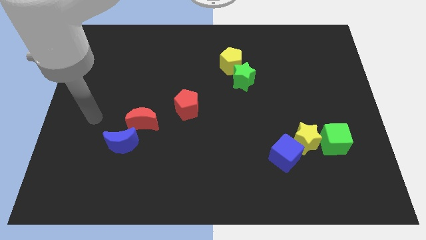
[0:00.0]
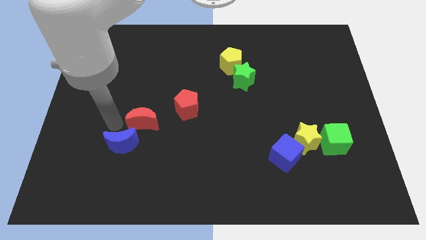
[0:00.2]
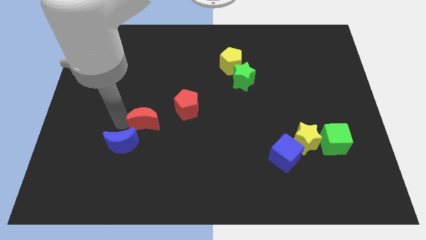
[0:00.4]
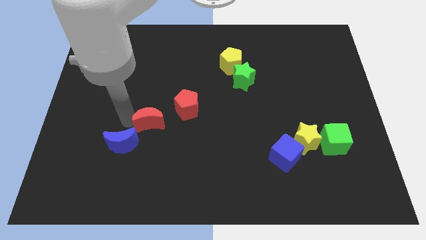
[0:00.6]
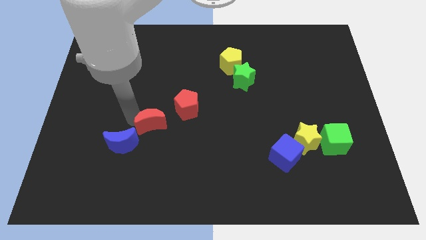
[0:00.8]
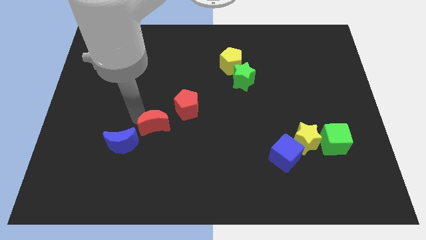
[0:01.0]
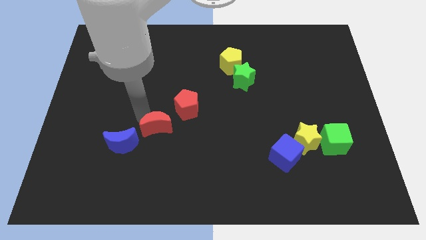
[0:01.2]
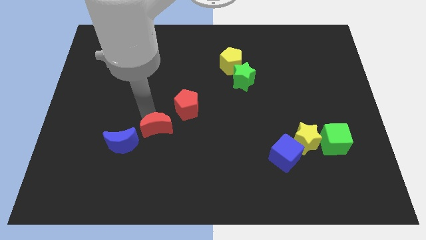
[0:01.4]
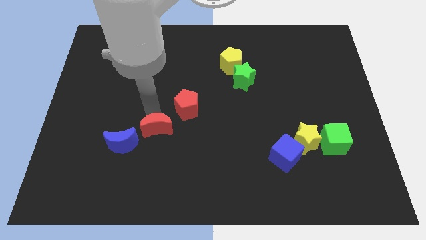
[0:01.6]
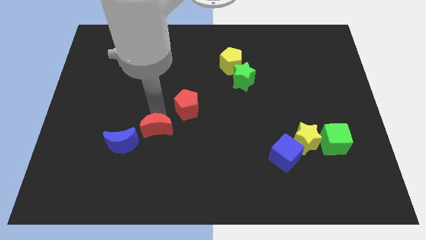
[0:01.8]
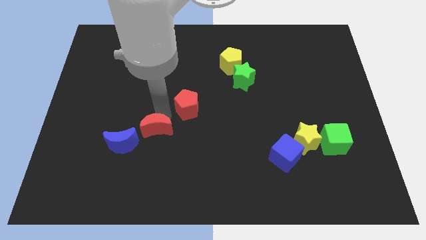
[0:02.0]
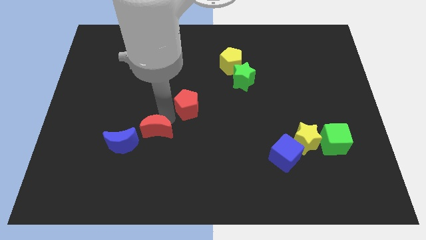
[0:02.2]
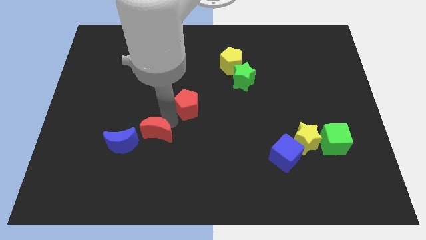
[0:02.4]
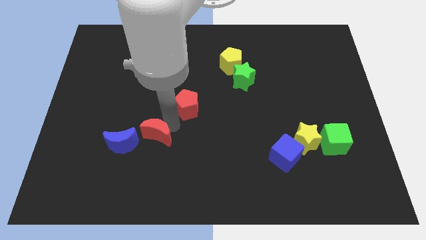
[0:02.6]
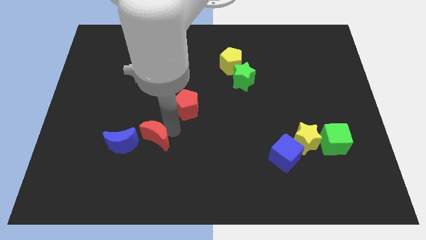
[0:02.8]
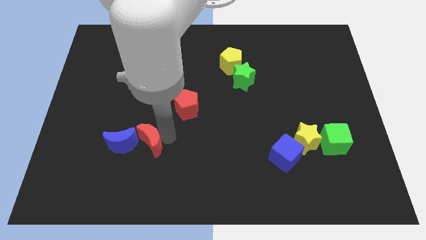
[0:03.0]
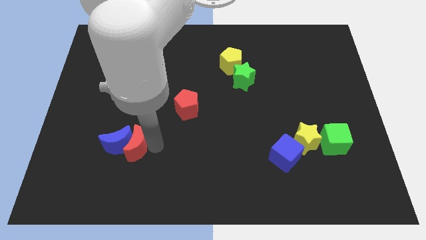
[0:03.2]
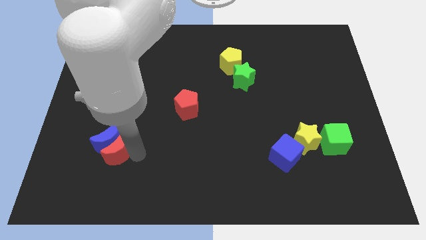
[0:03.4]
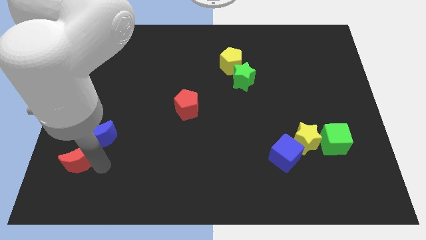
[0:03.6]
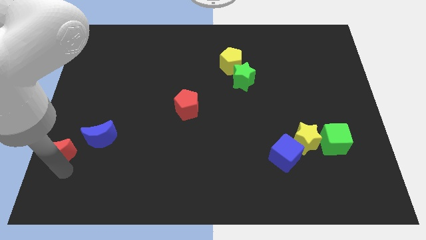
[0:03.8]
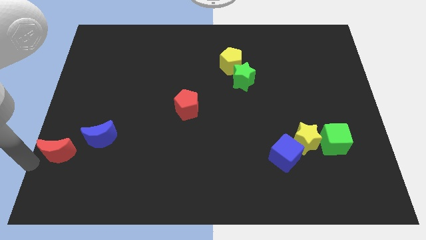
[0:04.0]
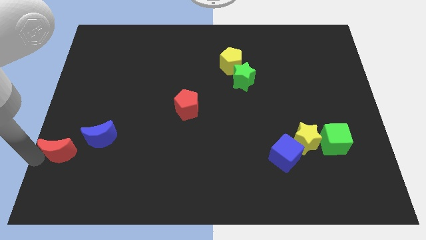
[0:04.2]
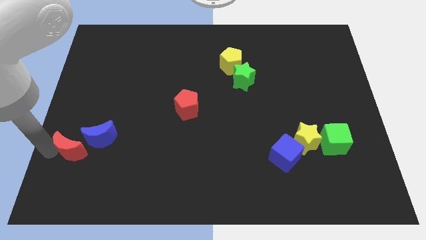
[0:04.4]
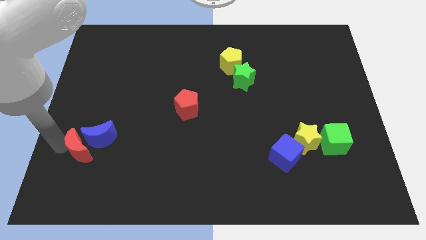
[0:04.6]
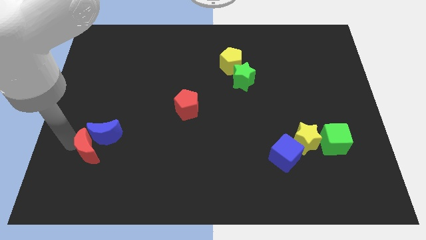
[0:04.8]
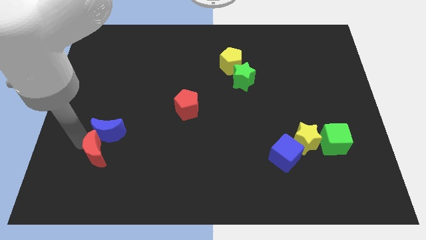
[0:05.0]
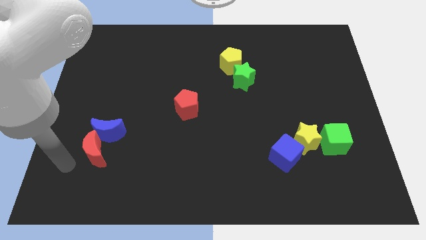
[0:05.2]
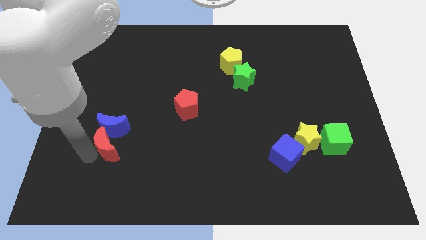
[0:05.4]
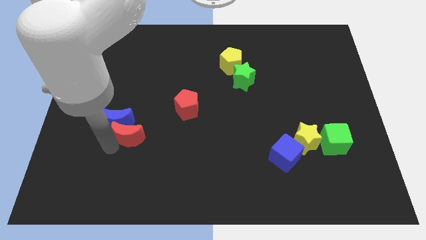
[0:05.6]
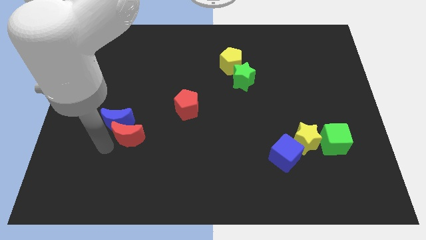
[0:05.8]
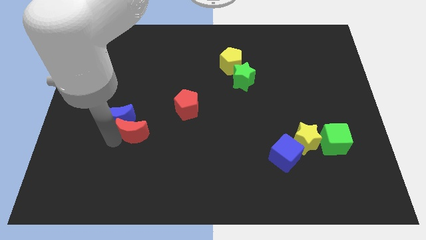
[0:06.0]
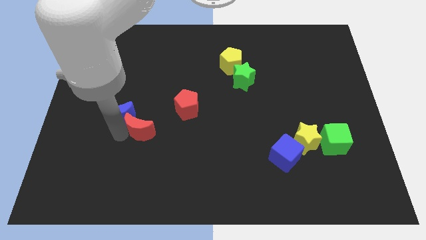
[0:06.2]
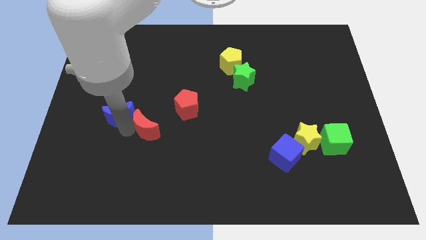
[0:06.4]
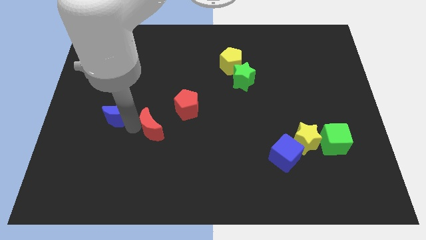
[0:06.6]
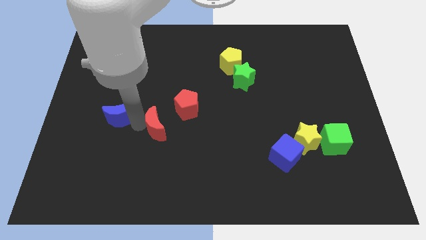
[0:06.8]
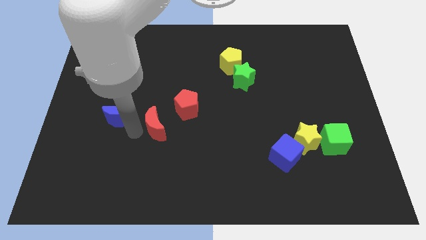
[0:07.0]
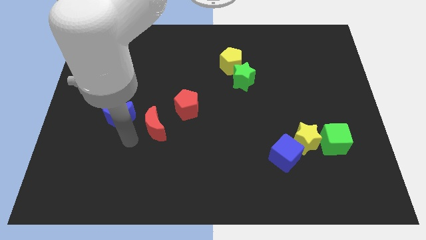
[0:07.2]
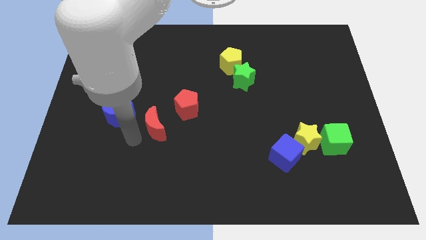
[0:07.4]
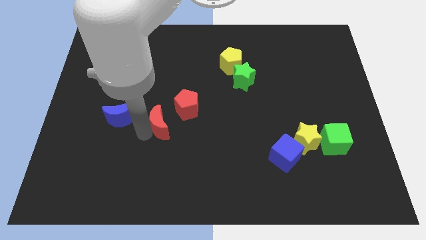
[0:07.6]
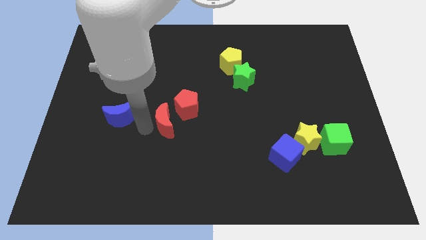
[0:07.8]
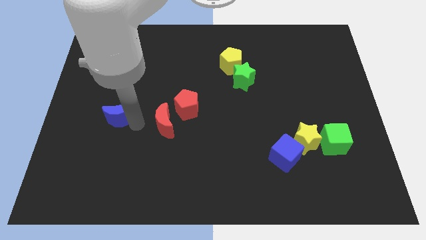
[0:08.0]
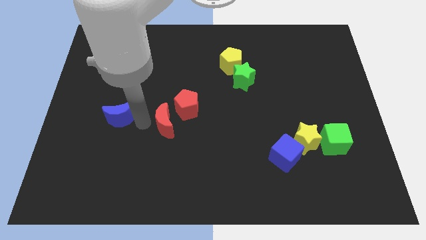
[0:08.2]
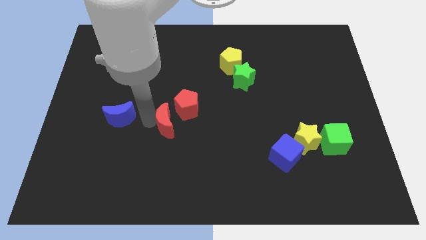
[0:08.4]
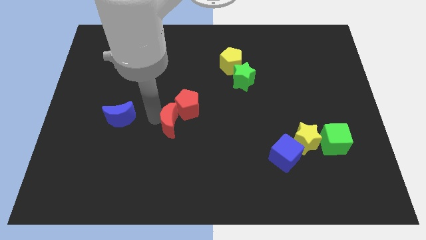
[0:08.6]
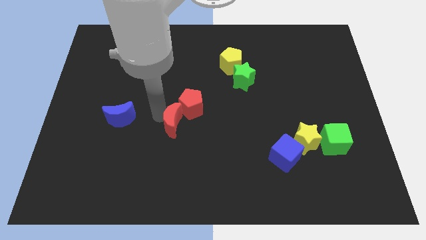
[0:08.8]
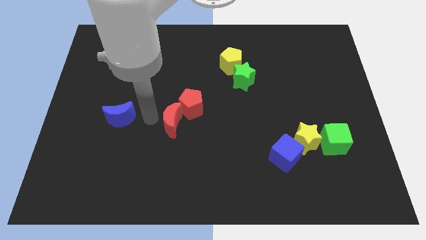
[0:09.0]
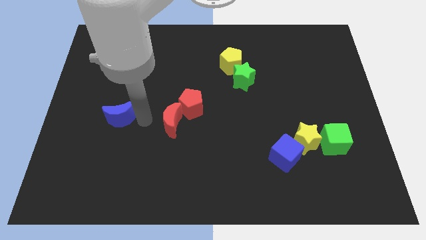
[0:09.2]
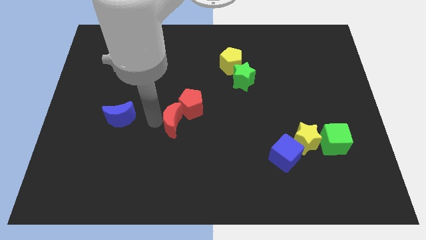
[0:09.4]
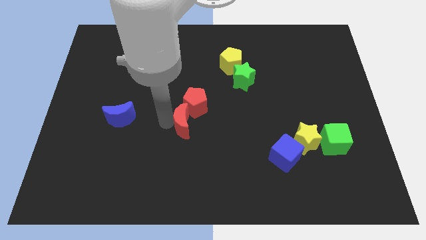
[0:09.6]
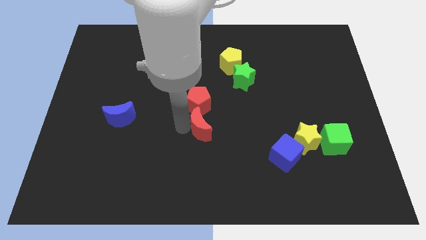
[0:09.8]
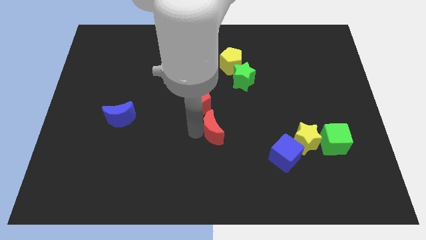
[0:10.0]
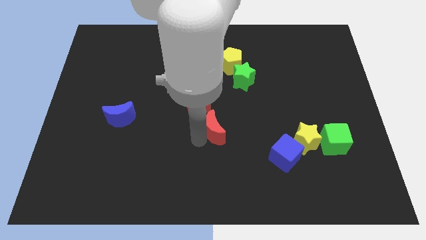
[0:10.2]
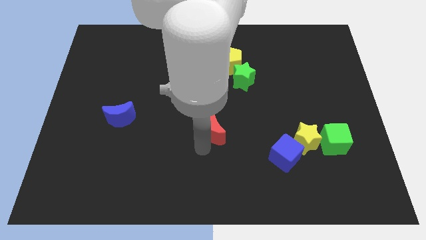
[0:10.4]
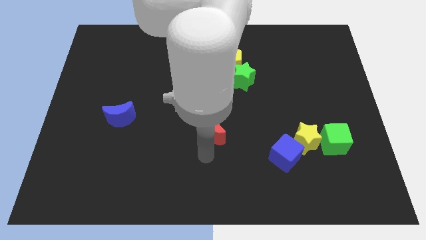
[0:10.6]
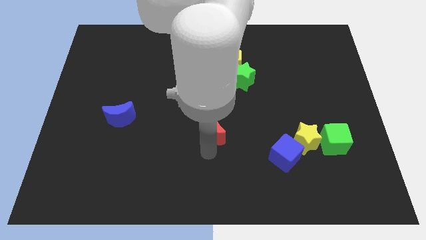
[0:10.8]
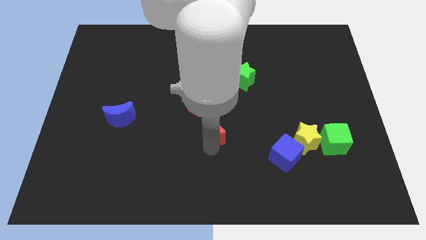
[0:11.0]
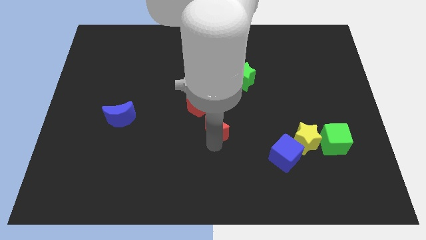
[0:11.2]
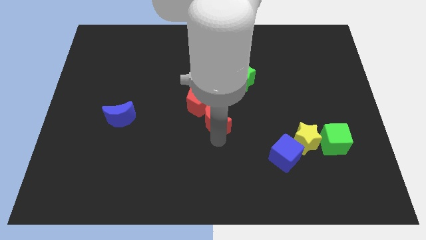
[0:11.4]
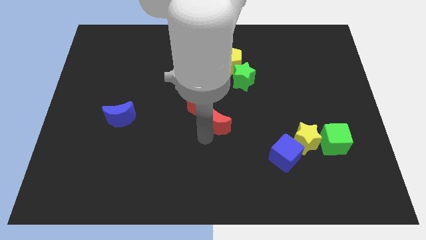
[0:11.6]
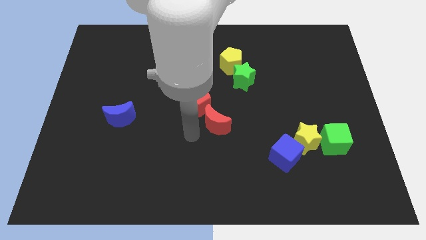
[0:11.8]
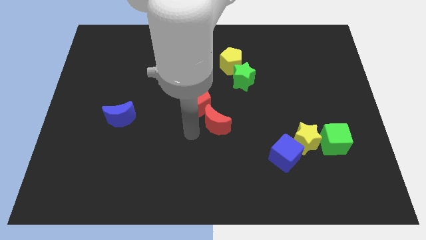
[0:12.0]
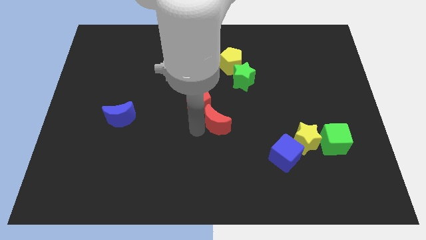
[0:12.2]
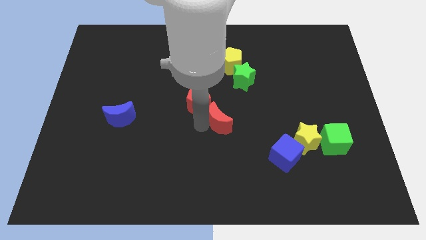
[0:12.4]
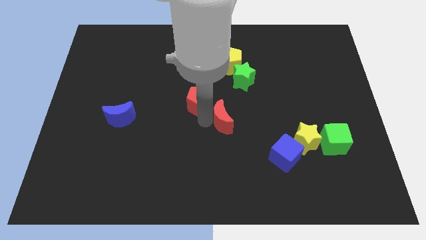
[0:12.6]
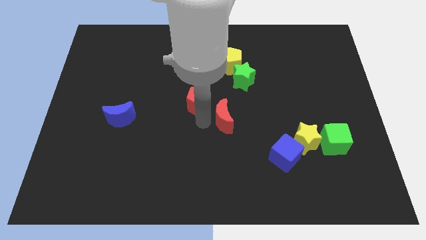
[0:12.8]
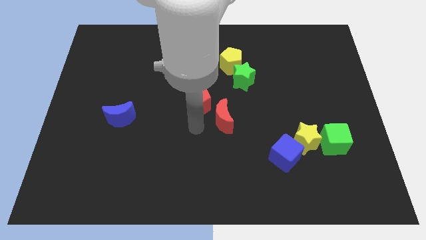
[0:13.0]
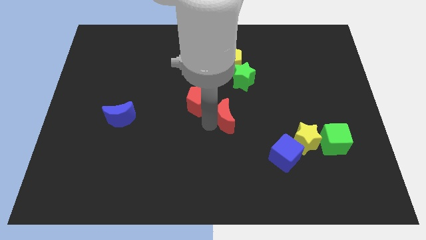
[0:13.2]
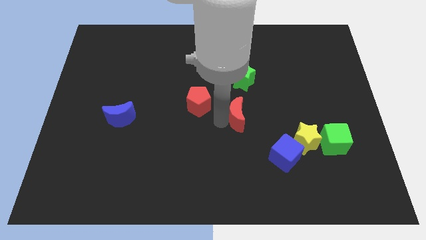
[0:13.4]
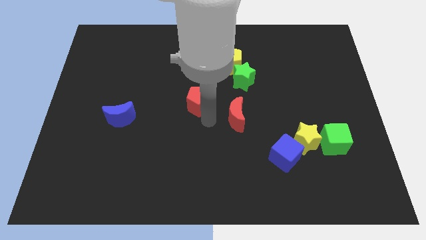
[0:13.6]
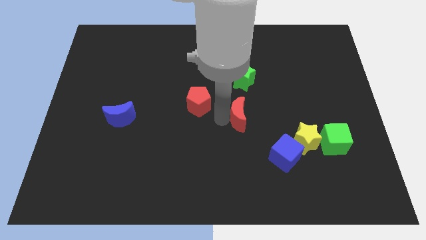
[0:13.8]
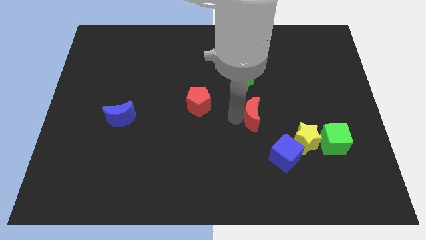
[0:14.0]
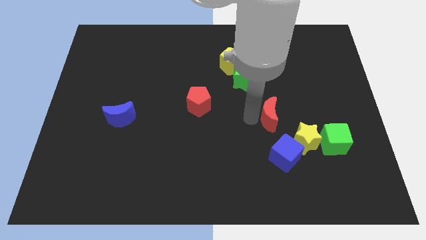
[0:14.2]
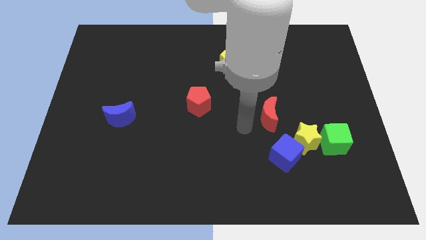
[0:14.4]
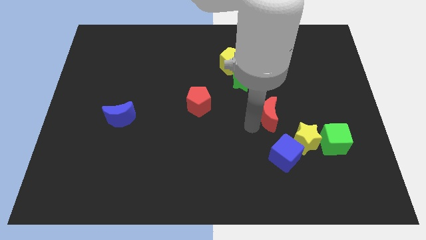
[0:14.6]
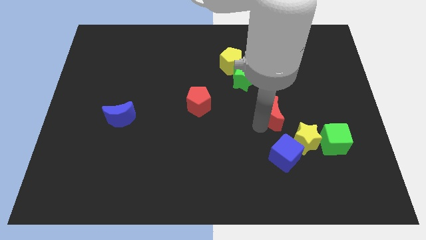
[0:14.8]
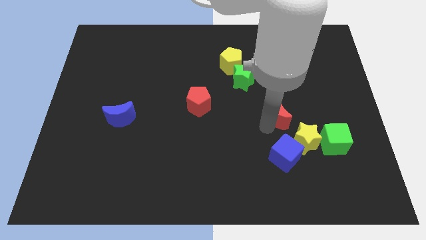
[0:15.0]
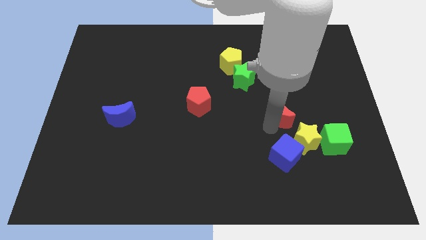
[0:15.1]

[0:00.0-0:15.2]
put the red moon to the top of the yellow star

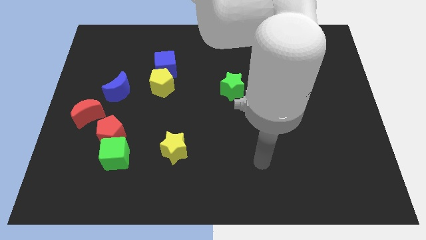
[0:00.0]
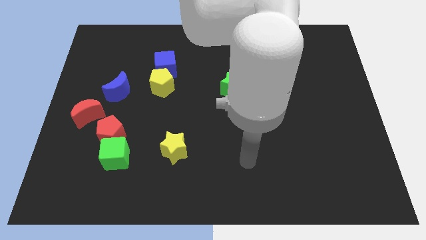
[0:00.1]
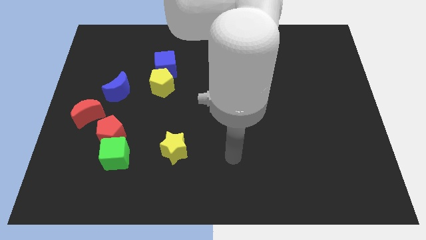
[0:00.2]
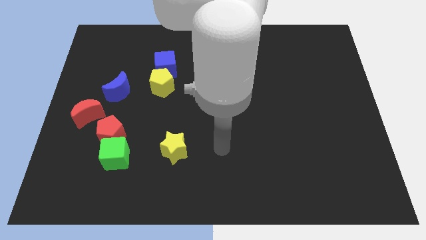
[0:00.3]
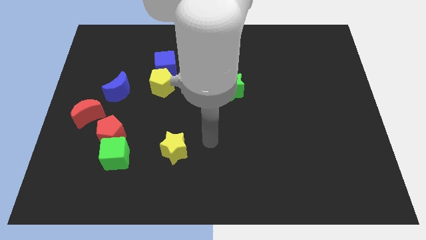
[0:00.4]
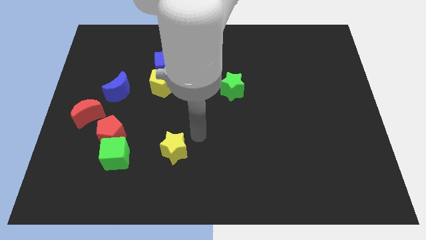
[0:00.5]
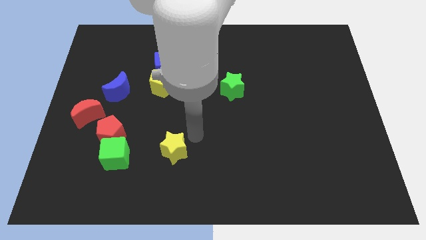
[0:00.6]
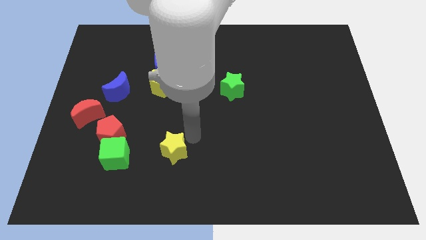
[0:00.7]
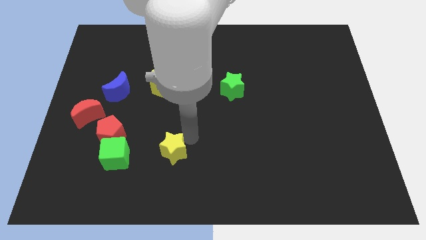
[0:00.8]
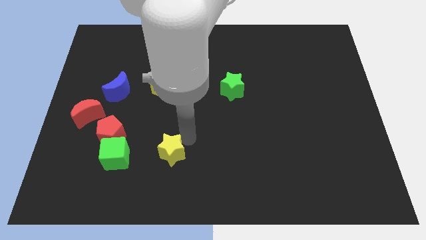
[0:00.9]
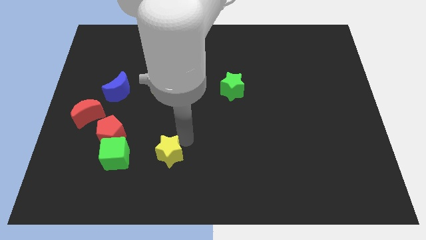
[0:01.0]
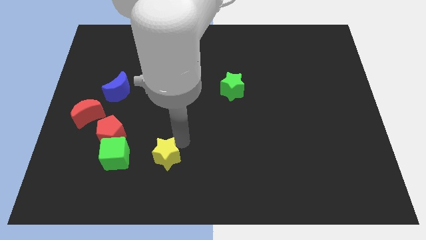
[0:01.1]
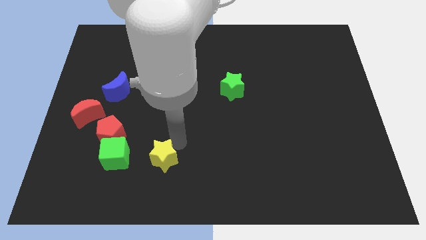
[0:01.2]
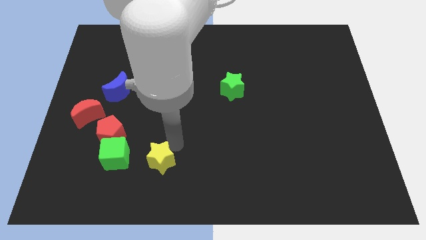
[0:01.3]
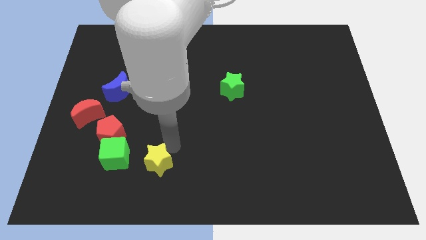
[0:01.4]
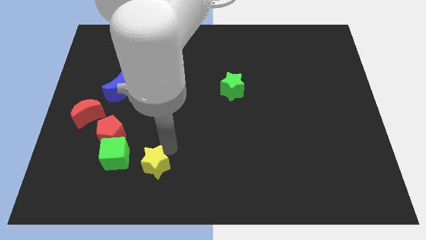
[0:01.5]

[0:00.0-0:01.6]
slide the yellow star to the bottom right side of the green cube
